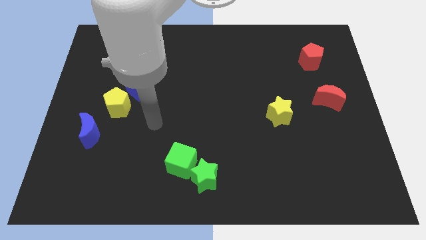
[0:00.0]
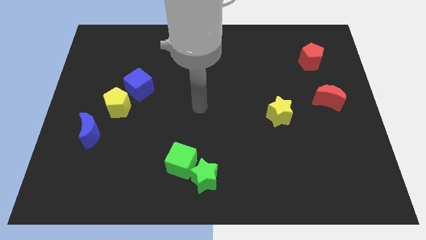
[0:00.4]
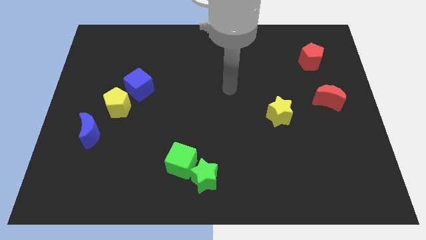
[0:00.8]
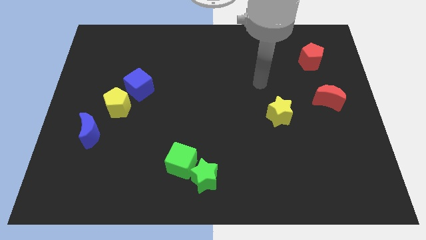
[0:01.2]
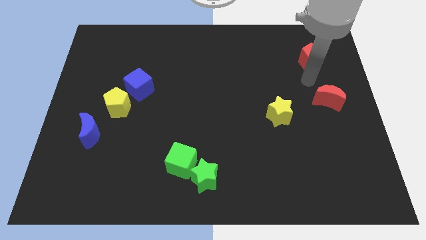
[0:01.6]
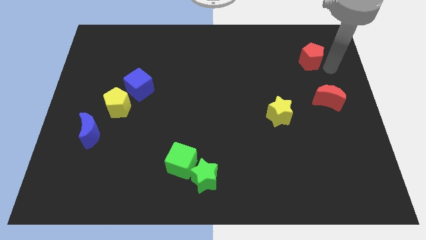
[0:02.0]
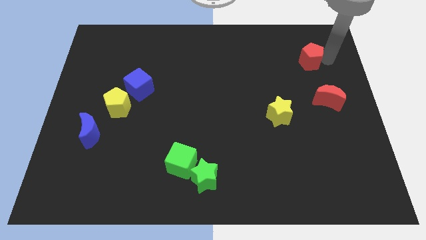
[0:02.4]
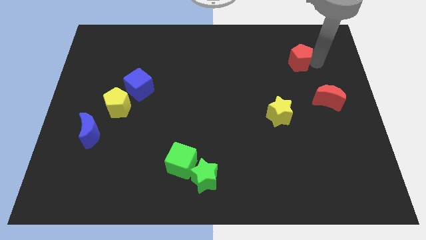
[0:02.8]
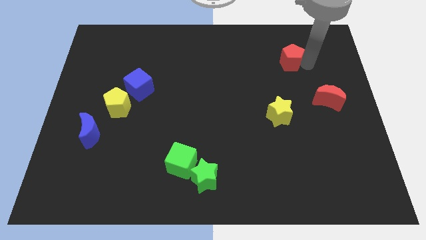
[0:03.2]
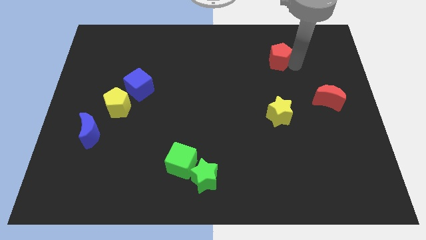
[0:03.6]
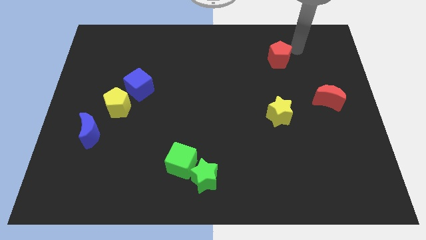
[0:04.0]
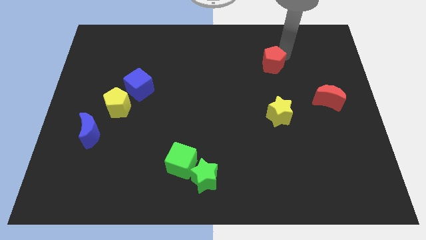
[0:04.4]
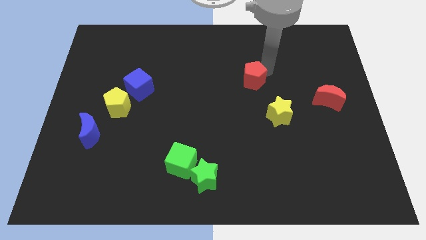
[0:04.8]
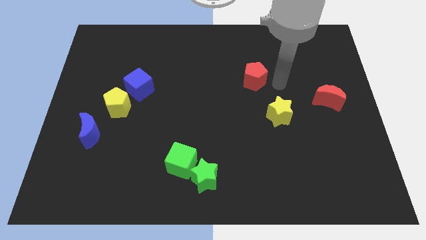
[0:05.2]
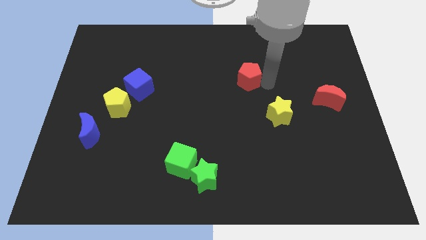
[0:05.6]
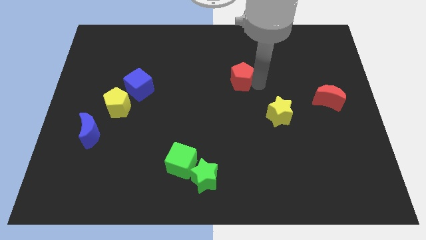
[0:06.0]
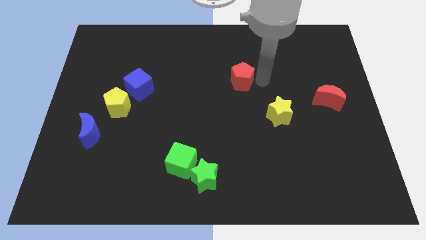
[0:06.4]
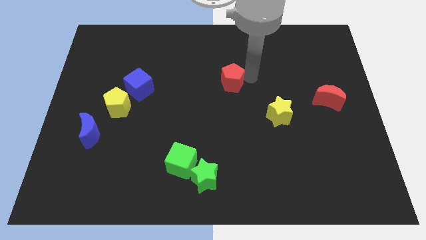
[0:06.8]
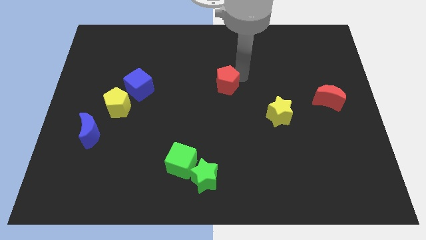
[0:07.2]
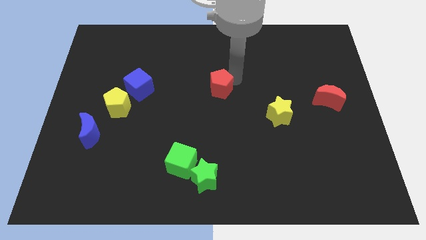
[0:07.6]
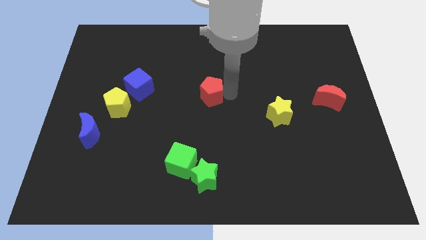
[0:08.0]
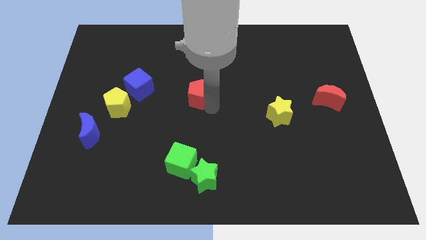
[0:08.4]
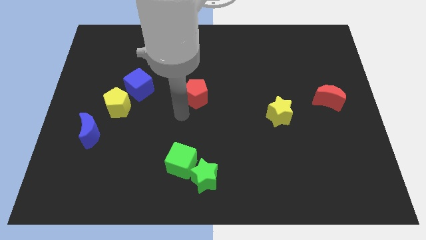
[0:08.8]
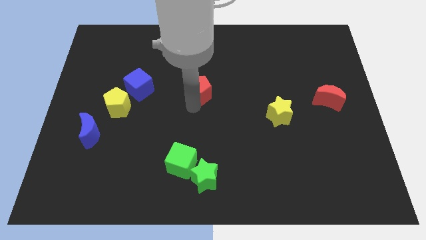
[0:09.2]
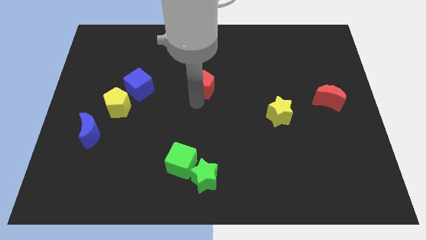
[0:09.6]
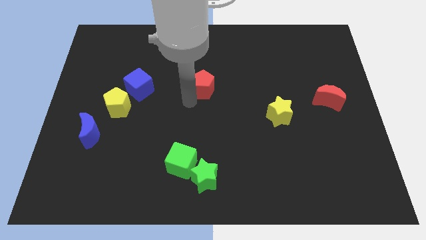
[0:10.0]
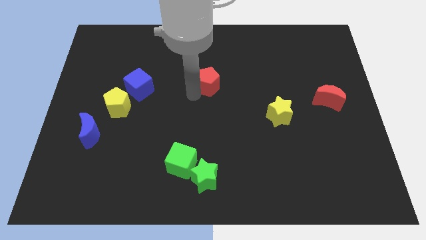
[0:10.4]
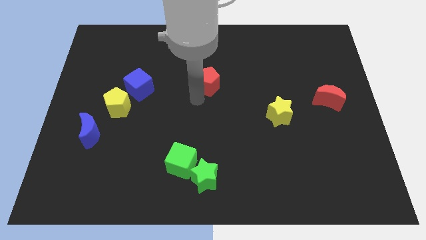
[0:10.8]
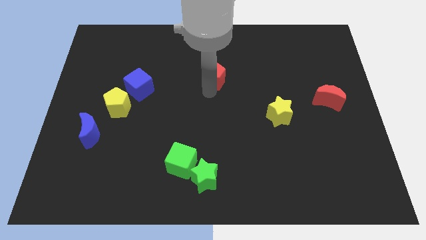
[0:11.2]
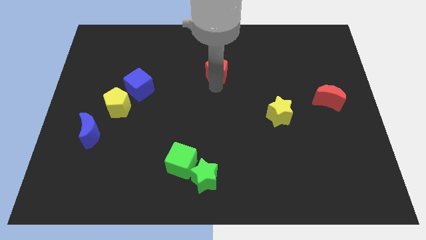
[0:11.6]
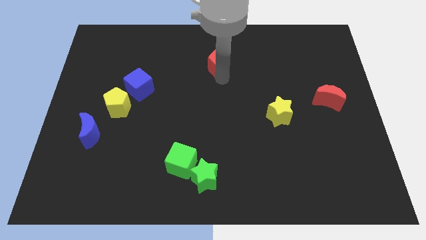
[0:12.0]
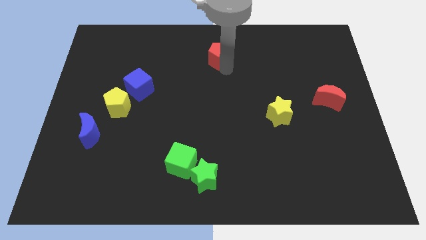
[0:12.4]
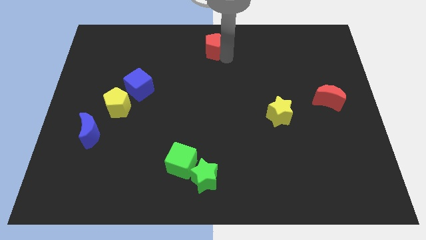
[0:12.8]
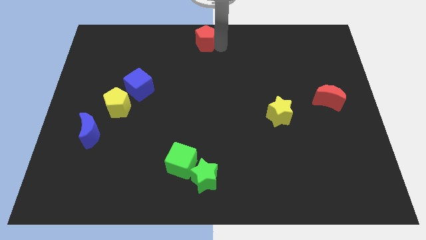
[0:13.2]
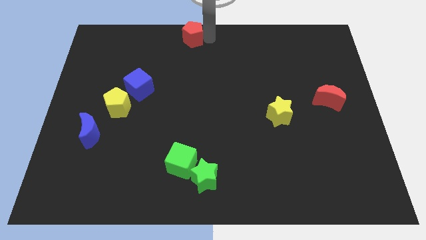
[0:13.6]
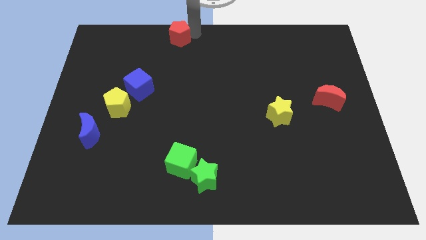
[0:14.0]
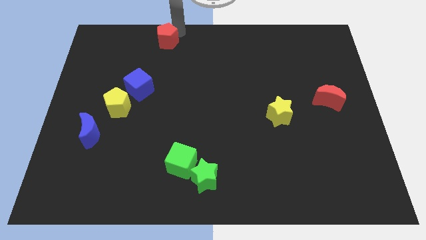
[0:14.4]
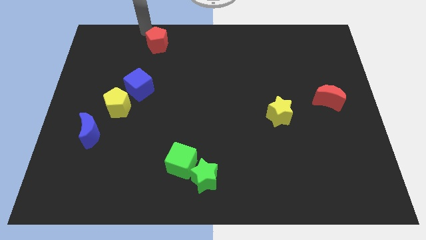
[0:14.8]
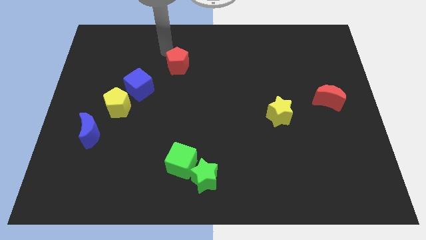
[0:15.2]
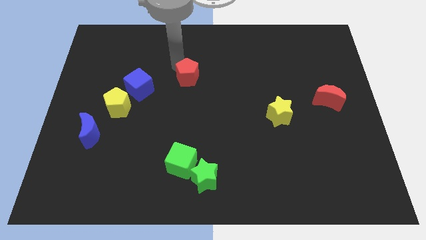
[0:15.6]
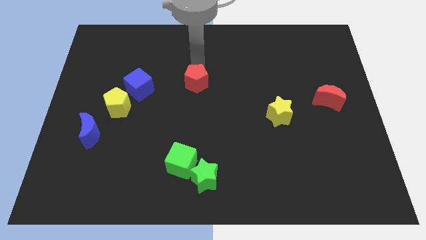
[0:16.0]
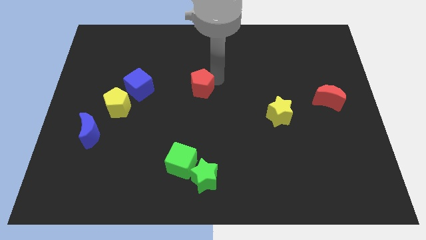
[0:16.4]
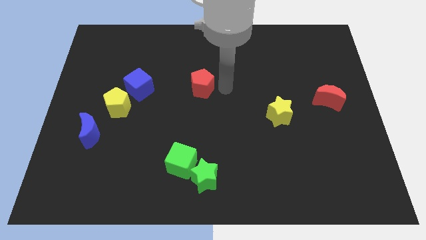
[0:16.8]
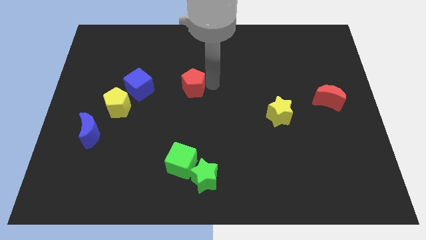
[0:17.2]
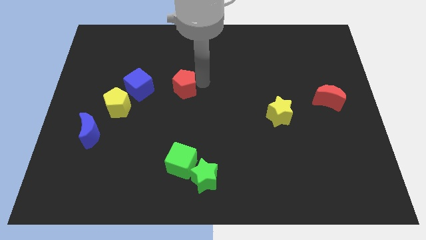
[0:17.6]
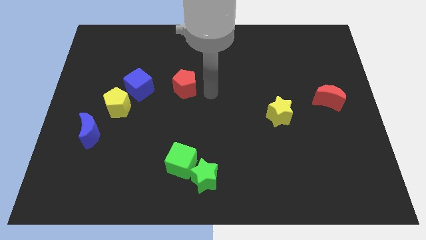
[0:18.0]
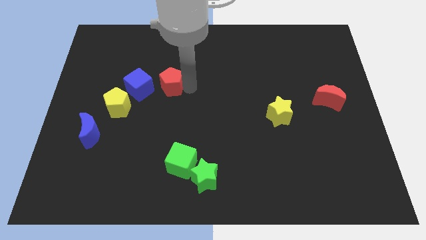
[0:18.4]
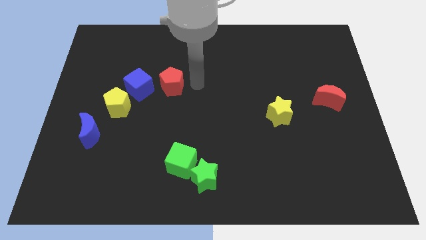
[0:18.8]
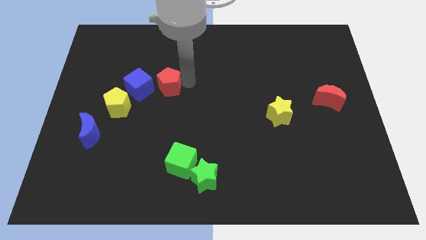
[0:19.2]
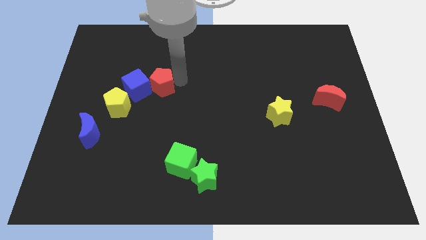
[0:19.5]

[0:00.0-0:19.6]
put the red pentagon to the blue cube

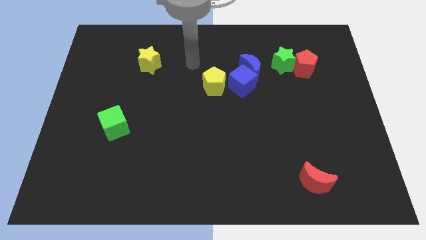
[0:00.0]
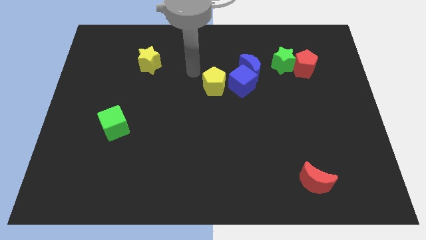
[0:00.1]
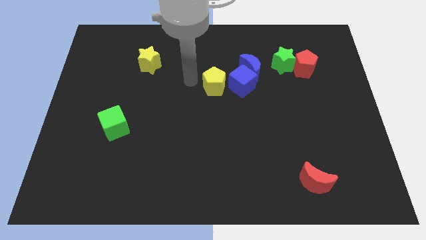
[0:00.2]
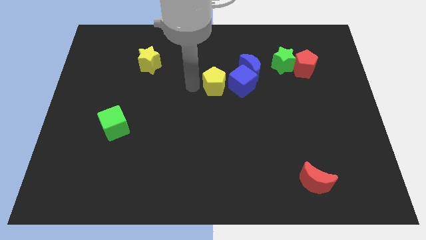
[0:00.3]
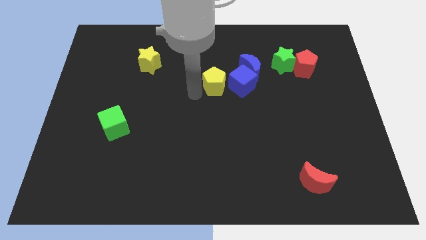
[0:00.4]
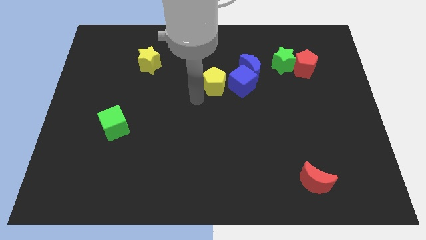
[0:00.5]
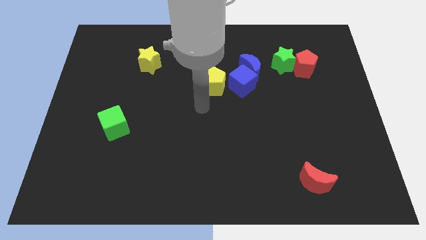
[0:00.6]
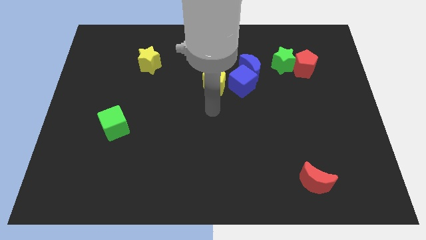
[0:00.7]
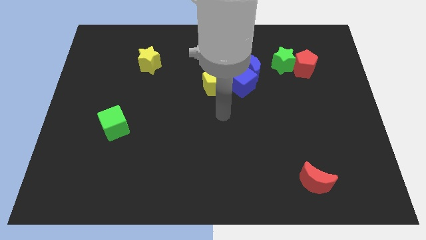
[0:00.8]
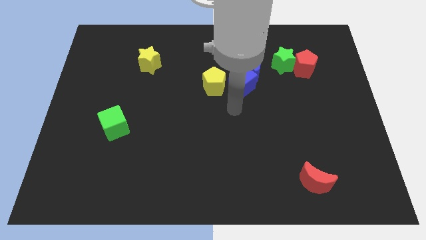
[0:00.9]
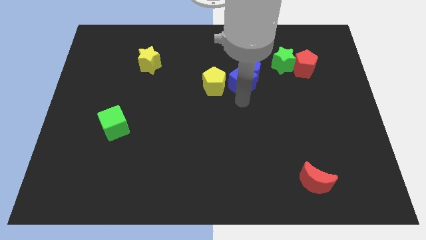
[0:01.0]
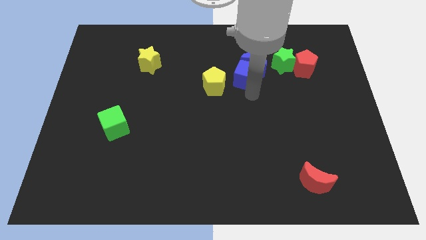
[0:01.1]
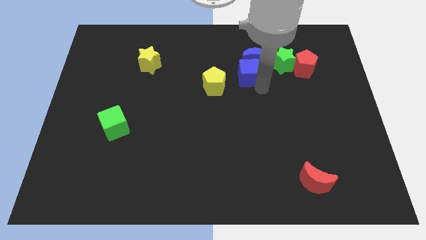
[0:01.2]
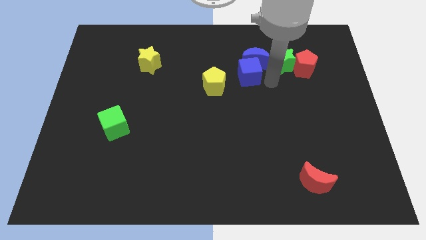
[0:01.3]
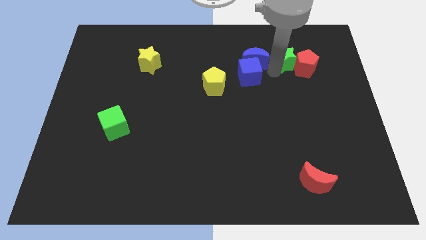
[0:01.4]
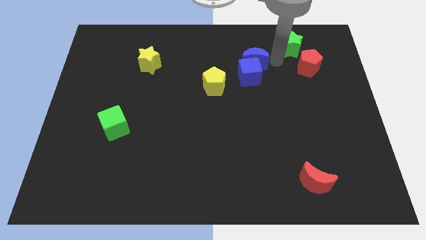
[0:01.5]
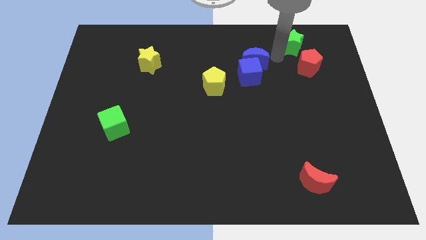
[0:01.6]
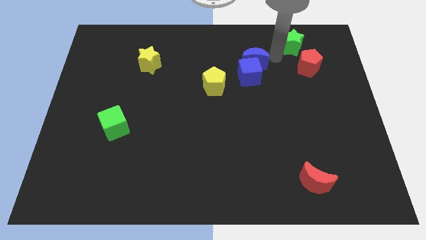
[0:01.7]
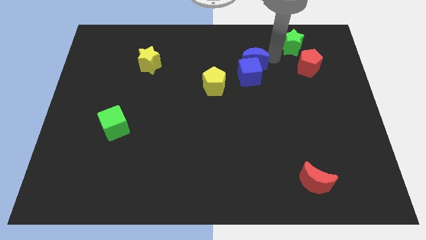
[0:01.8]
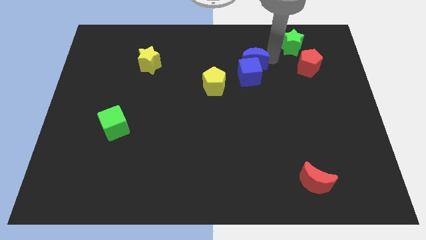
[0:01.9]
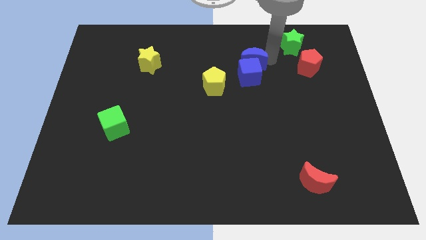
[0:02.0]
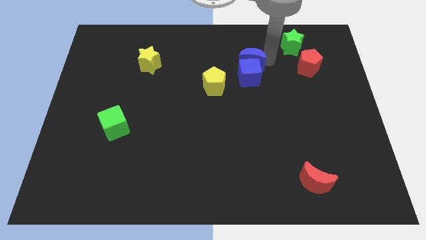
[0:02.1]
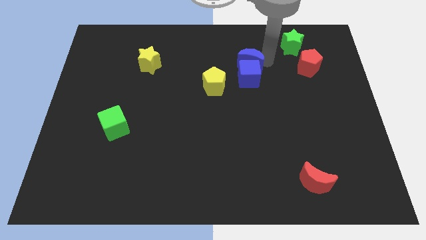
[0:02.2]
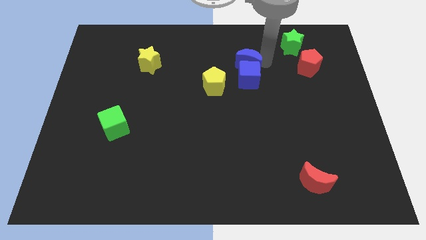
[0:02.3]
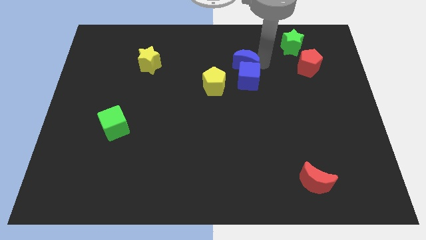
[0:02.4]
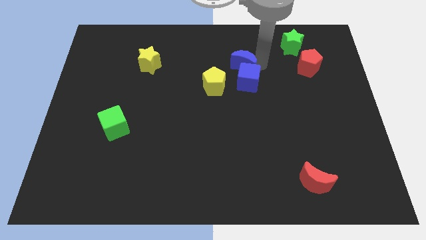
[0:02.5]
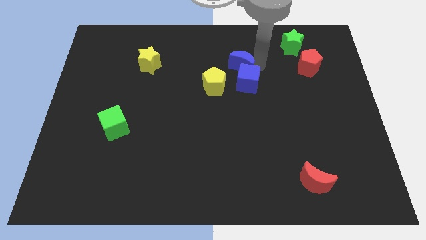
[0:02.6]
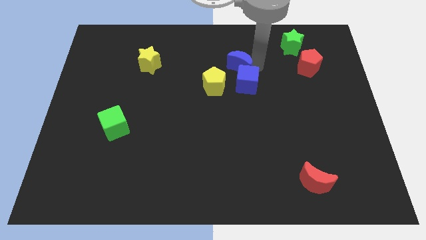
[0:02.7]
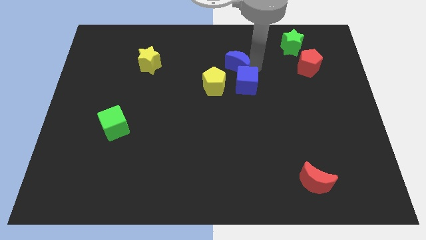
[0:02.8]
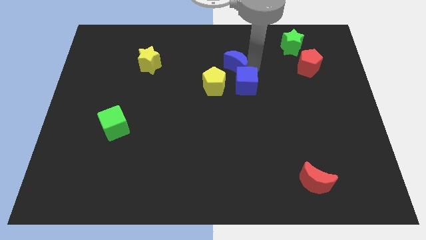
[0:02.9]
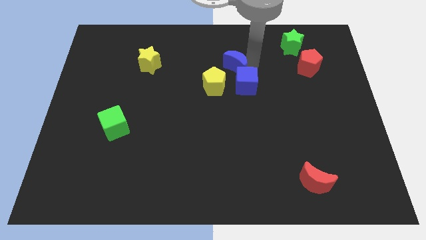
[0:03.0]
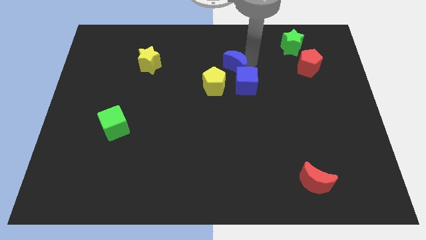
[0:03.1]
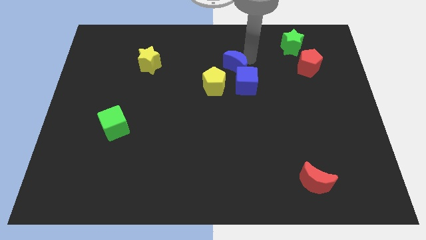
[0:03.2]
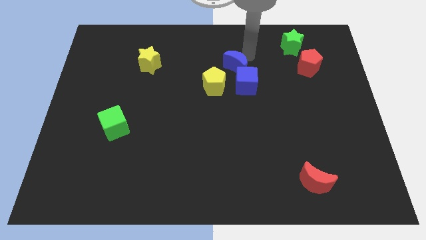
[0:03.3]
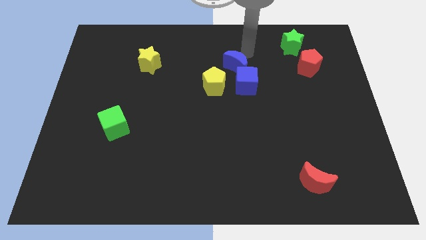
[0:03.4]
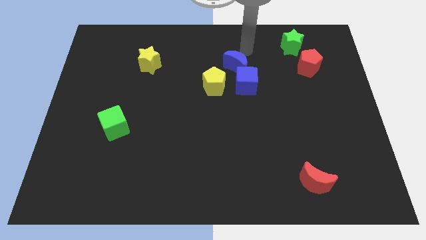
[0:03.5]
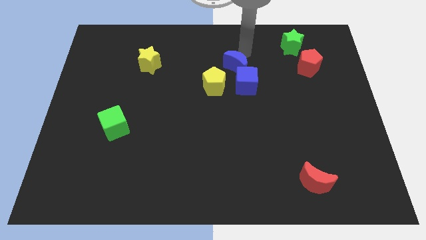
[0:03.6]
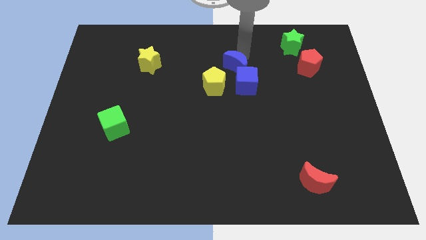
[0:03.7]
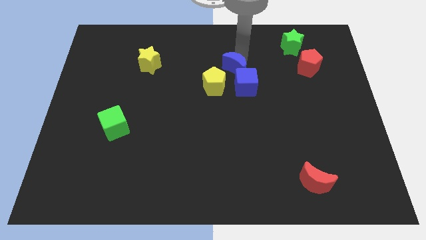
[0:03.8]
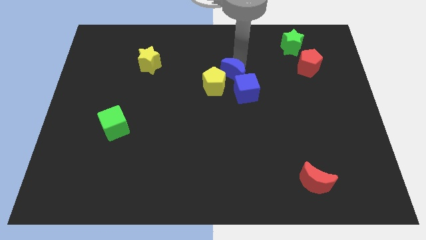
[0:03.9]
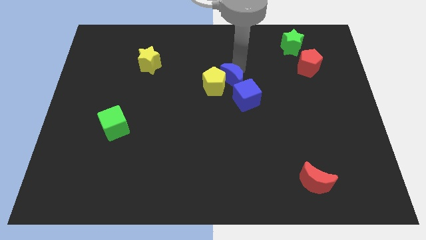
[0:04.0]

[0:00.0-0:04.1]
move the blue moon next to the yellow pentagon
